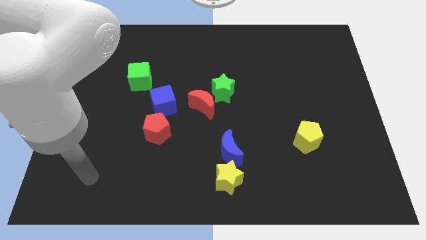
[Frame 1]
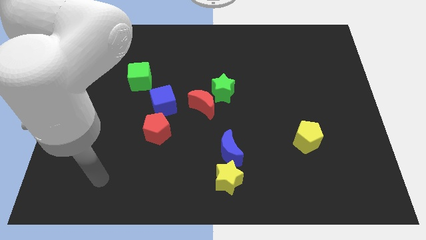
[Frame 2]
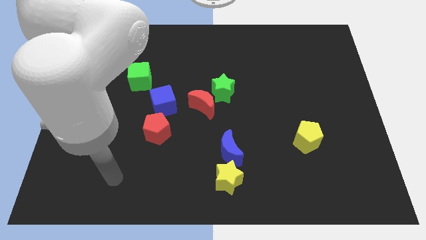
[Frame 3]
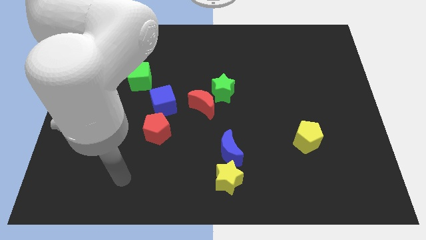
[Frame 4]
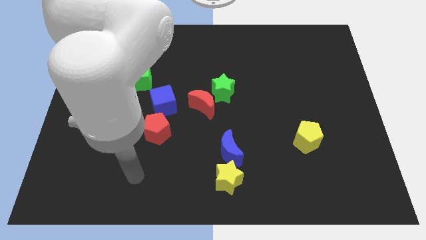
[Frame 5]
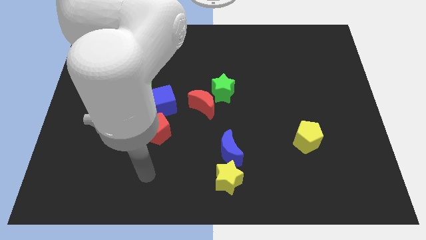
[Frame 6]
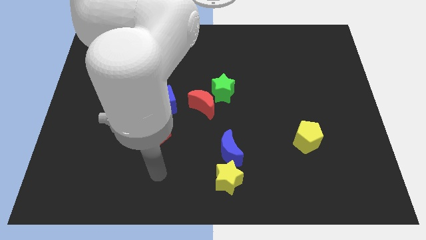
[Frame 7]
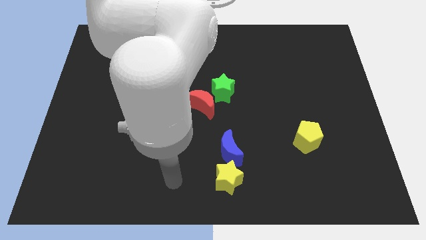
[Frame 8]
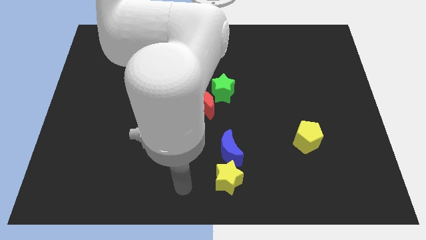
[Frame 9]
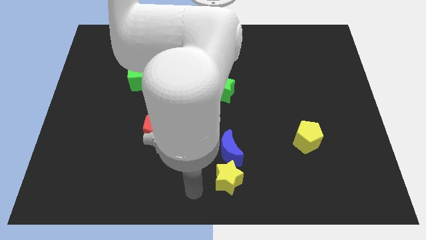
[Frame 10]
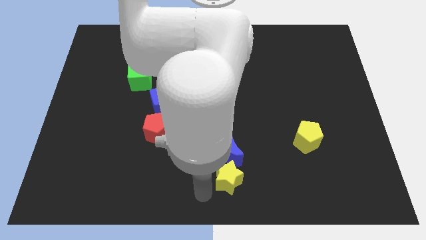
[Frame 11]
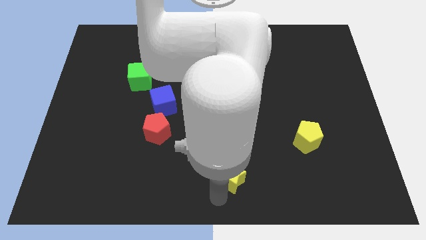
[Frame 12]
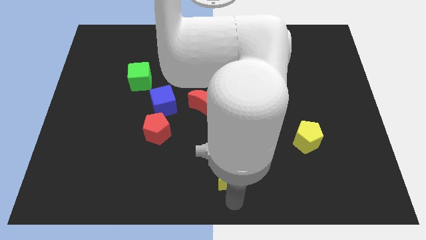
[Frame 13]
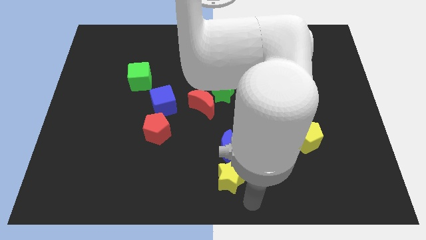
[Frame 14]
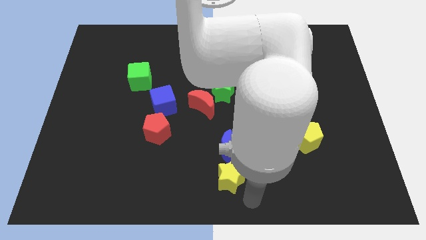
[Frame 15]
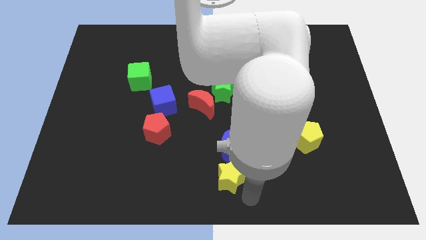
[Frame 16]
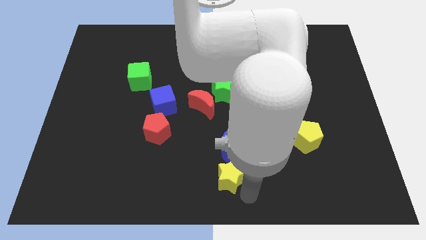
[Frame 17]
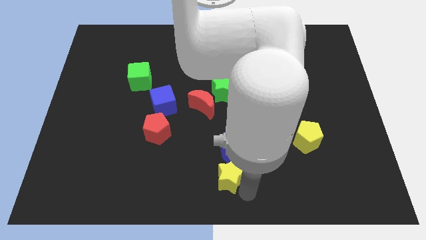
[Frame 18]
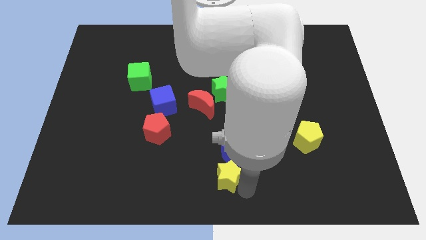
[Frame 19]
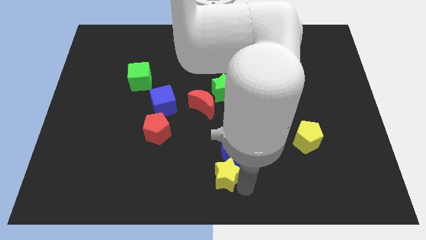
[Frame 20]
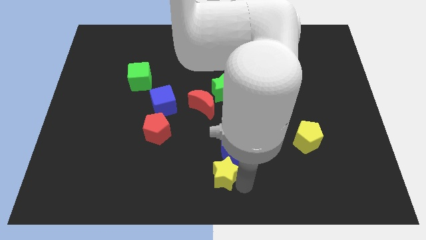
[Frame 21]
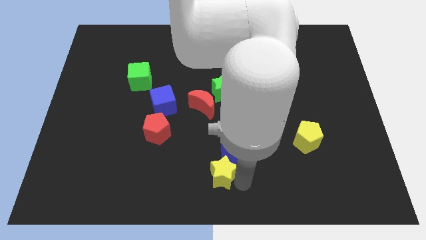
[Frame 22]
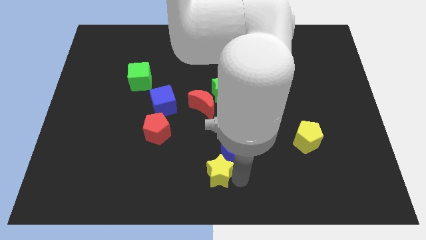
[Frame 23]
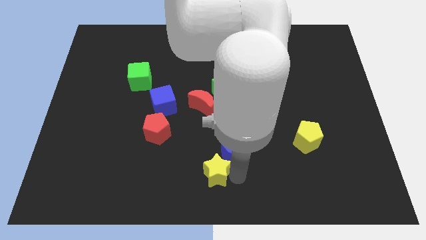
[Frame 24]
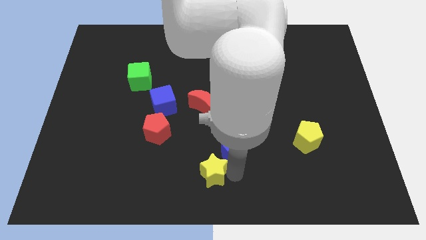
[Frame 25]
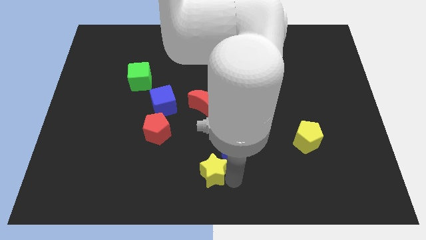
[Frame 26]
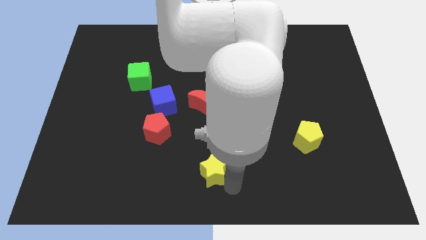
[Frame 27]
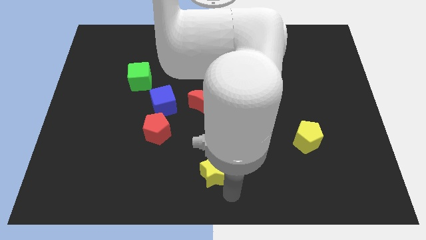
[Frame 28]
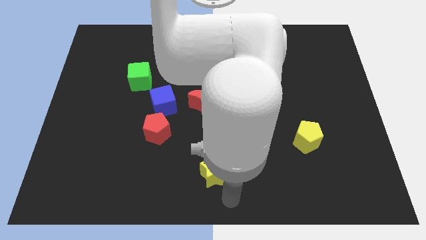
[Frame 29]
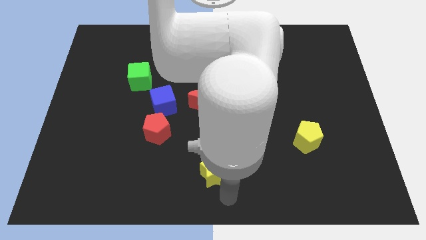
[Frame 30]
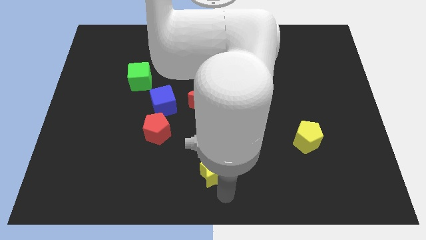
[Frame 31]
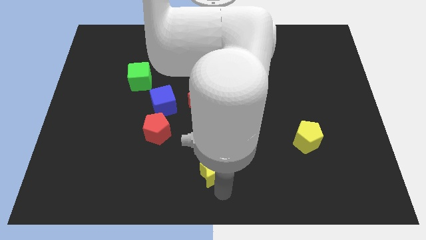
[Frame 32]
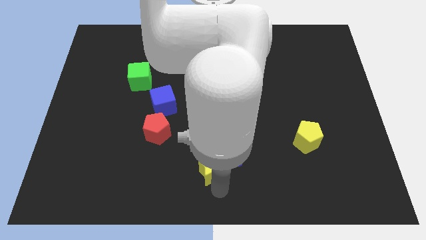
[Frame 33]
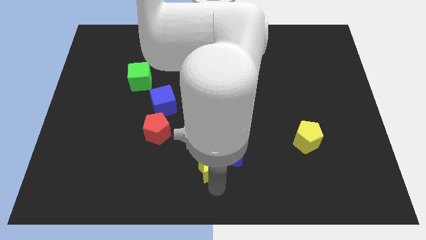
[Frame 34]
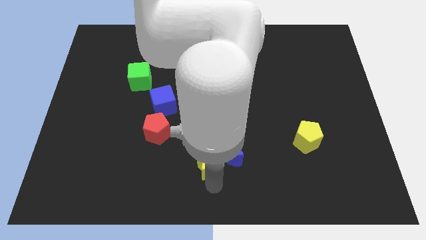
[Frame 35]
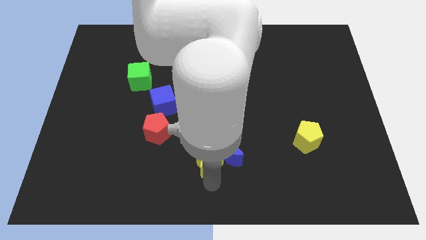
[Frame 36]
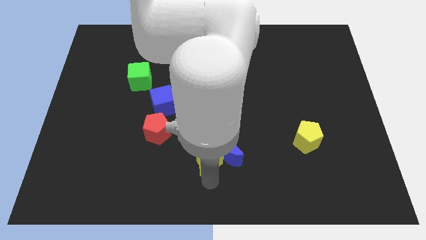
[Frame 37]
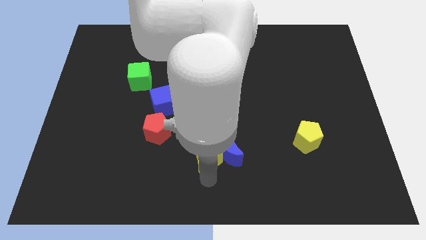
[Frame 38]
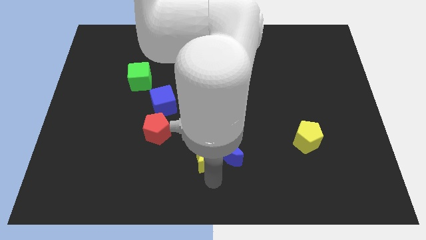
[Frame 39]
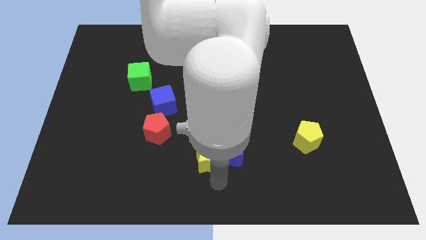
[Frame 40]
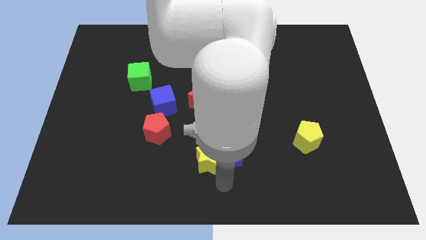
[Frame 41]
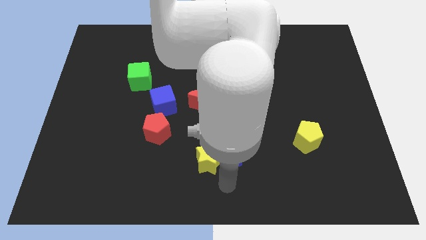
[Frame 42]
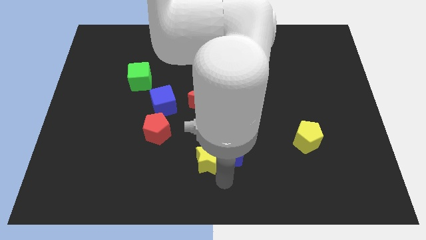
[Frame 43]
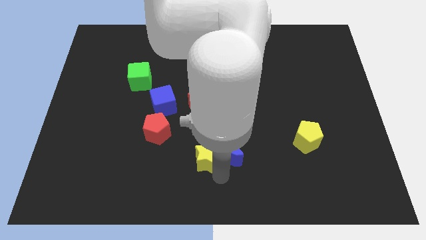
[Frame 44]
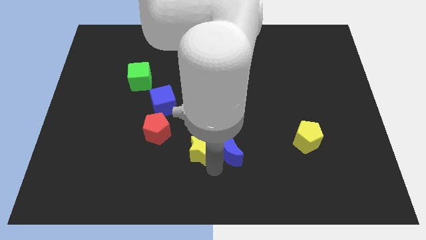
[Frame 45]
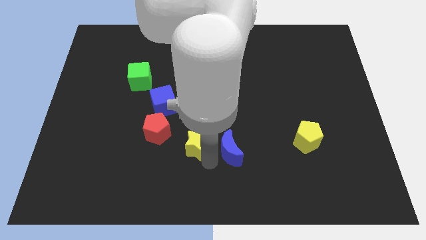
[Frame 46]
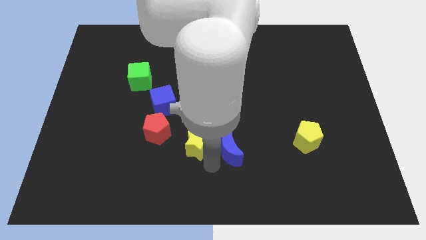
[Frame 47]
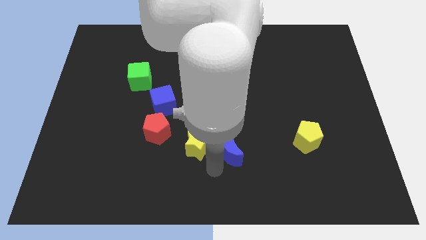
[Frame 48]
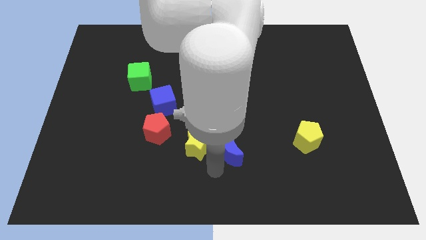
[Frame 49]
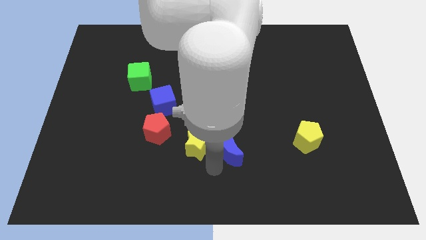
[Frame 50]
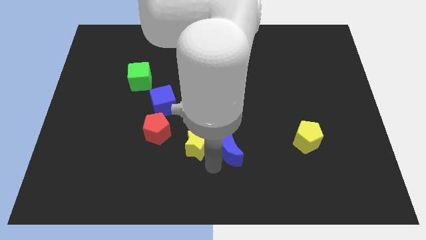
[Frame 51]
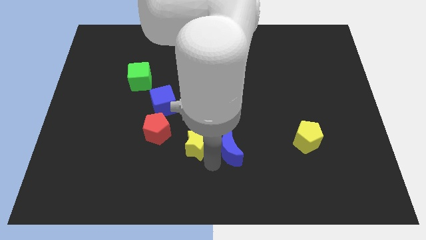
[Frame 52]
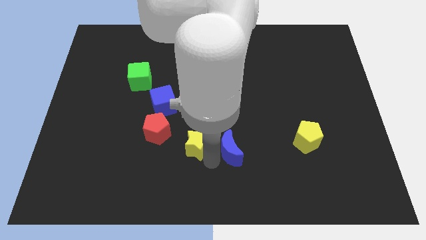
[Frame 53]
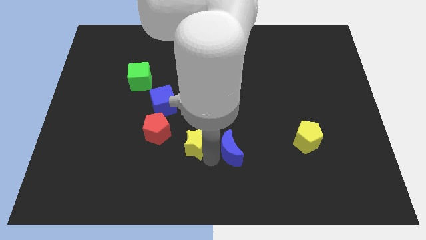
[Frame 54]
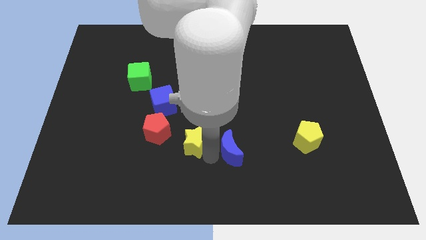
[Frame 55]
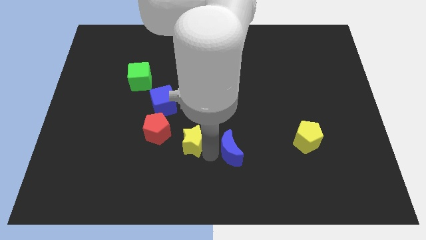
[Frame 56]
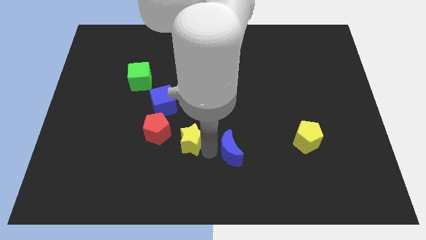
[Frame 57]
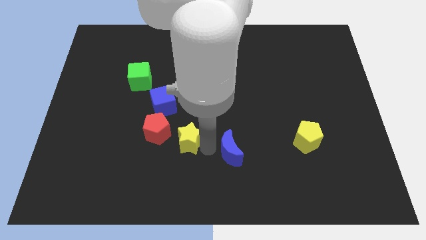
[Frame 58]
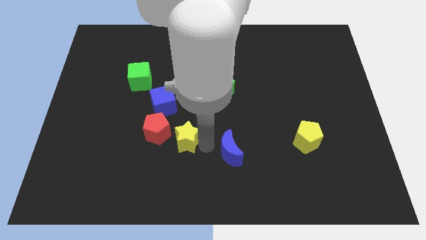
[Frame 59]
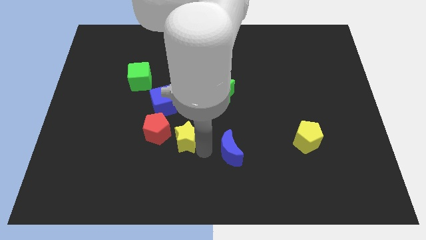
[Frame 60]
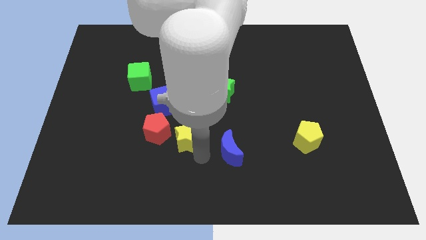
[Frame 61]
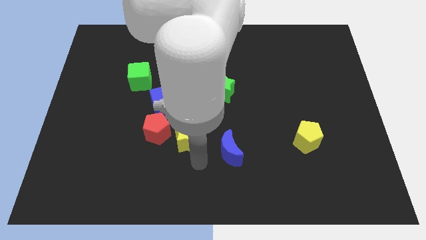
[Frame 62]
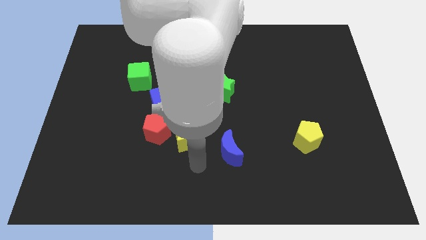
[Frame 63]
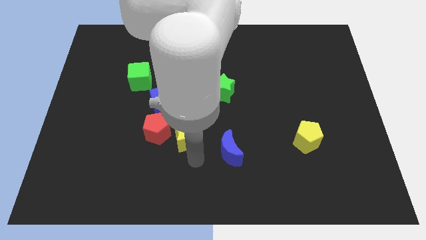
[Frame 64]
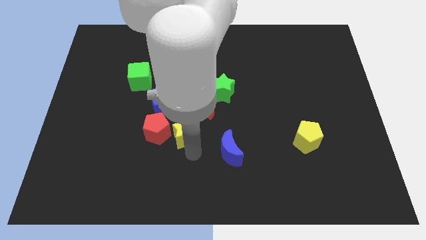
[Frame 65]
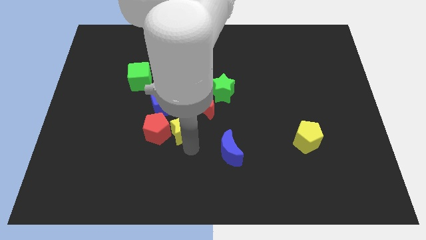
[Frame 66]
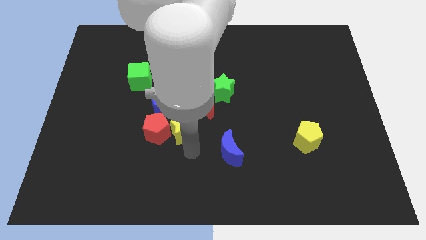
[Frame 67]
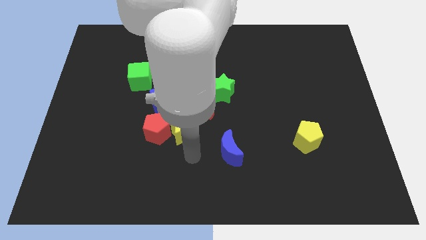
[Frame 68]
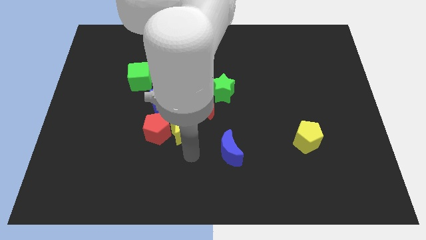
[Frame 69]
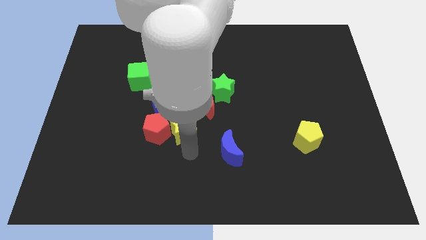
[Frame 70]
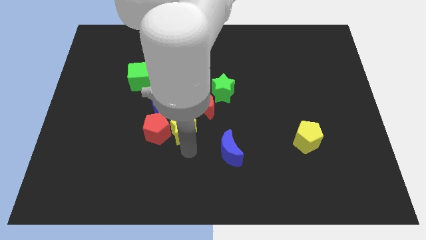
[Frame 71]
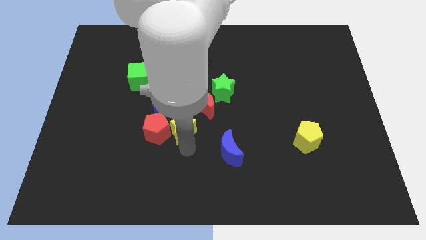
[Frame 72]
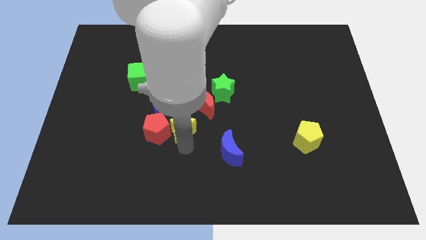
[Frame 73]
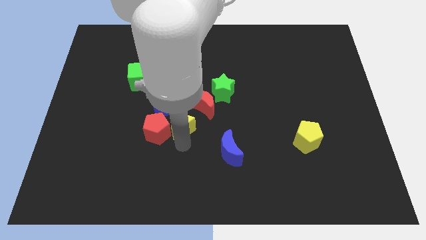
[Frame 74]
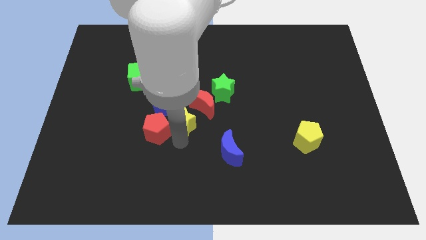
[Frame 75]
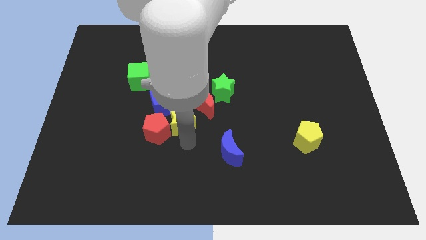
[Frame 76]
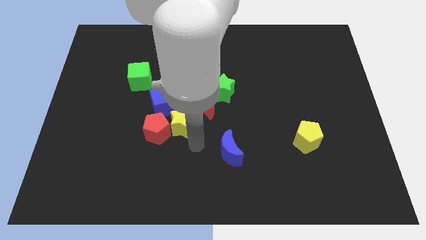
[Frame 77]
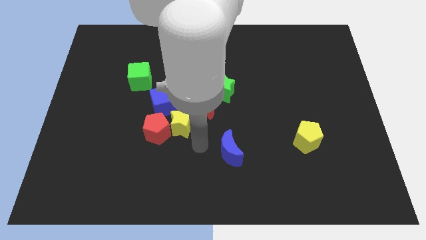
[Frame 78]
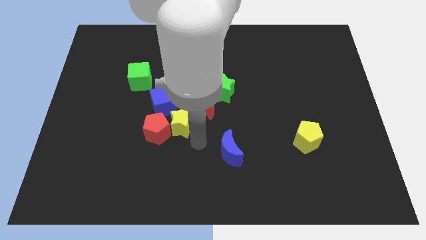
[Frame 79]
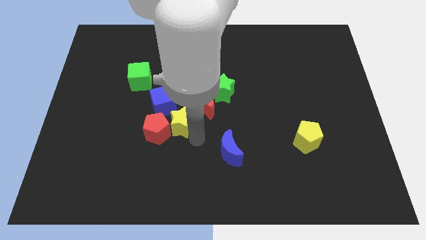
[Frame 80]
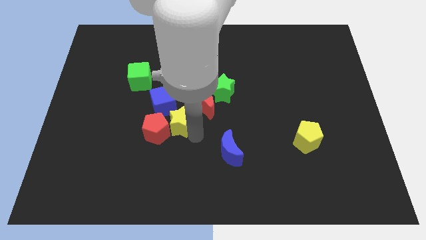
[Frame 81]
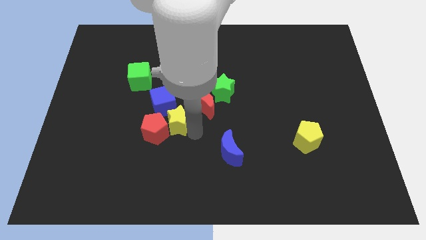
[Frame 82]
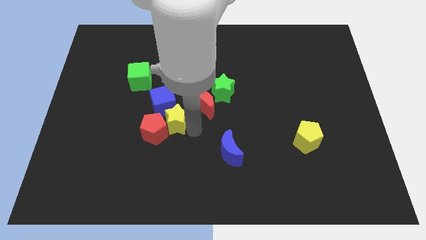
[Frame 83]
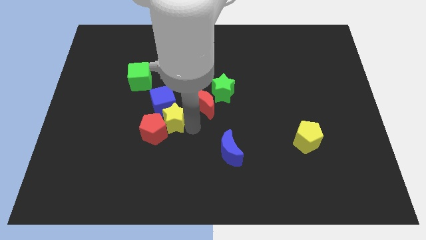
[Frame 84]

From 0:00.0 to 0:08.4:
slide the yellow star to the blue cube
